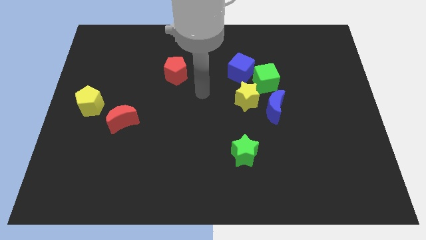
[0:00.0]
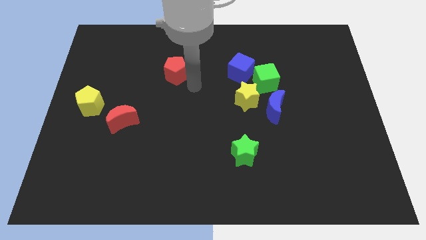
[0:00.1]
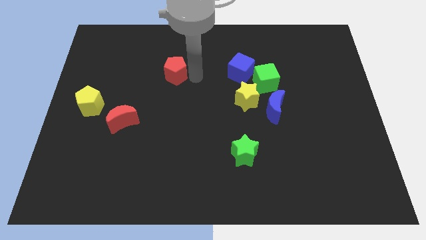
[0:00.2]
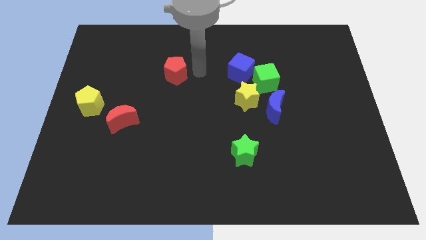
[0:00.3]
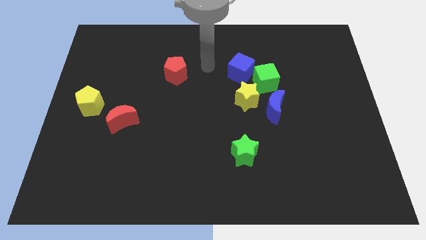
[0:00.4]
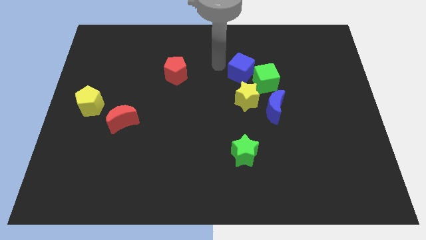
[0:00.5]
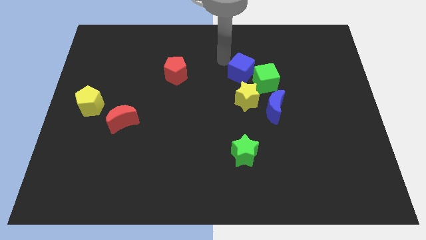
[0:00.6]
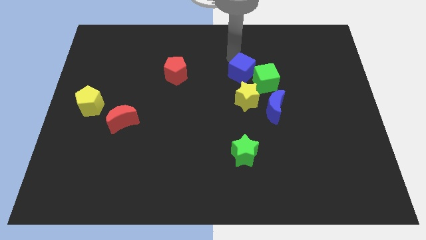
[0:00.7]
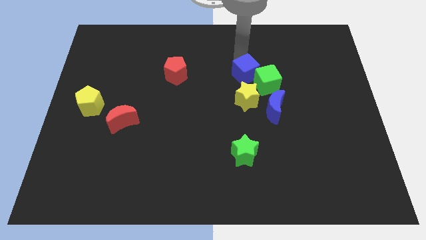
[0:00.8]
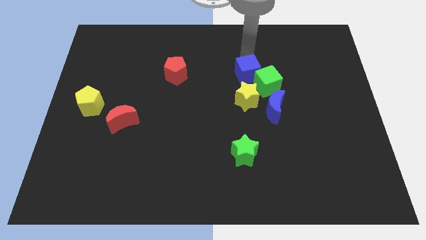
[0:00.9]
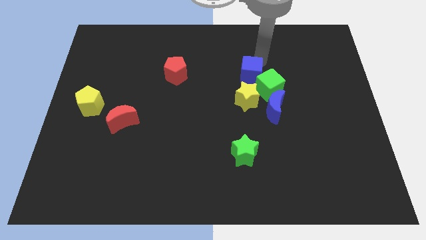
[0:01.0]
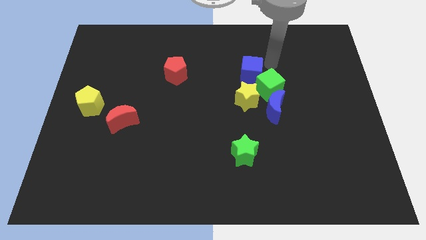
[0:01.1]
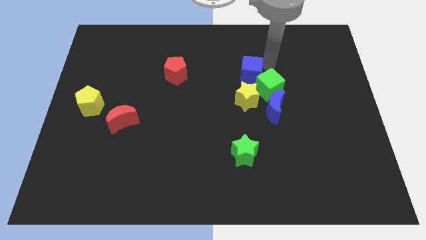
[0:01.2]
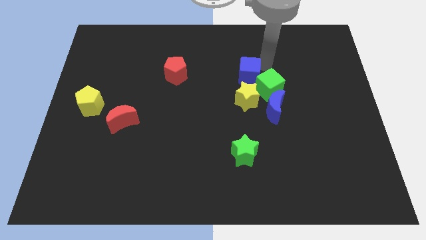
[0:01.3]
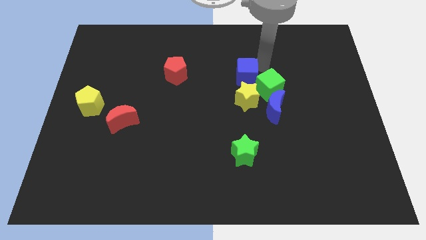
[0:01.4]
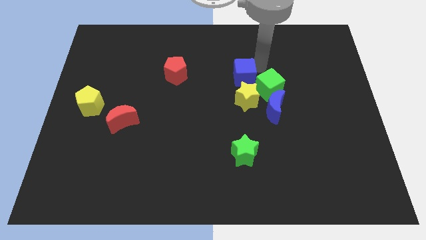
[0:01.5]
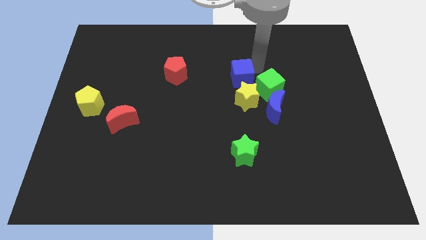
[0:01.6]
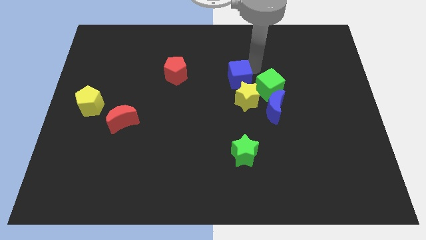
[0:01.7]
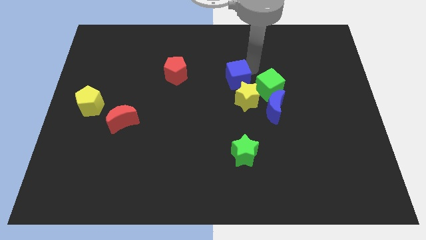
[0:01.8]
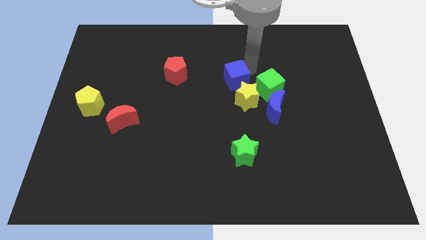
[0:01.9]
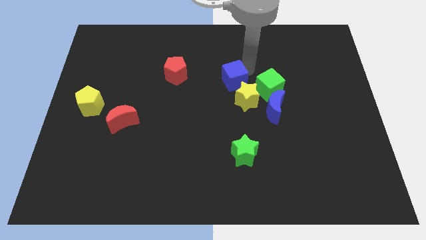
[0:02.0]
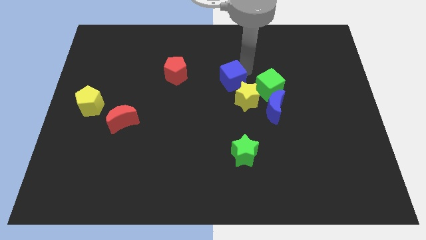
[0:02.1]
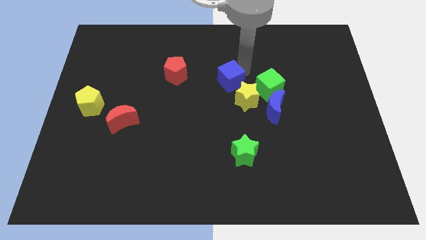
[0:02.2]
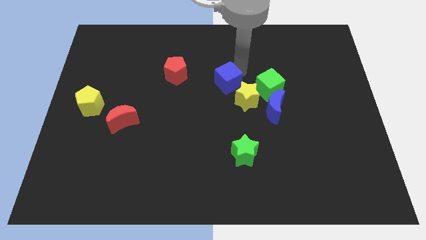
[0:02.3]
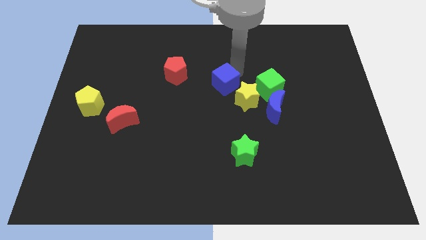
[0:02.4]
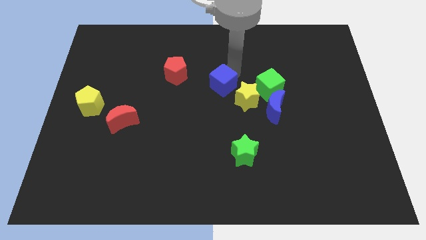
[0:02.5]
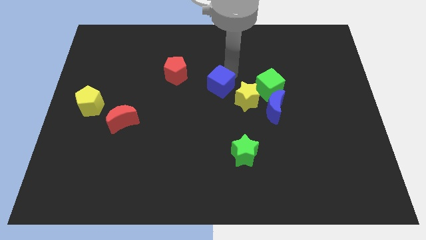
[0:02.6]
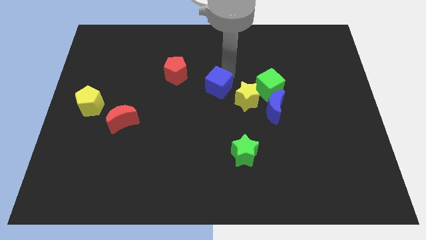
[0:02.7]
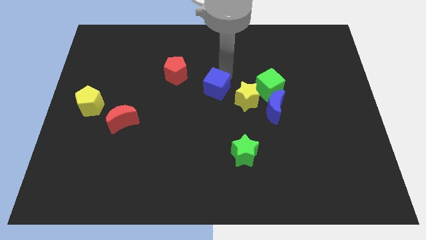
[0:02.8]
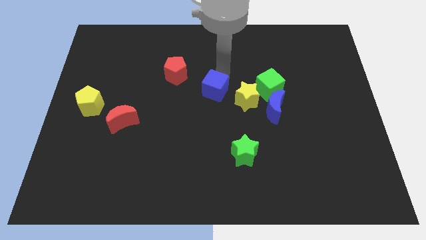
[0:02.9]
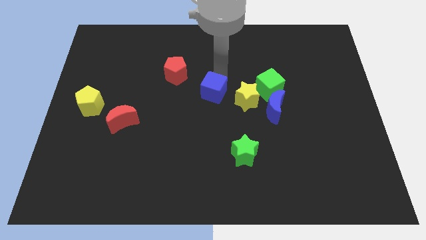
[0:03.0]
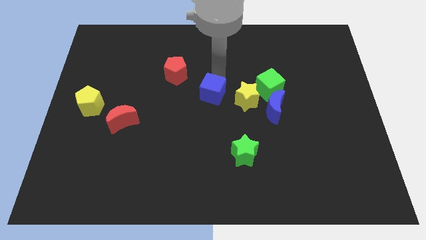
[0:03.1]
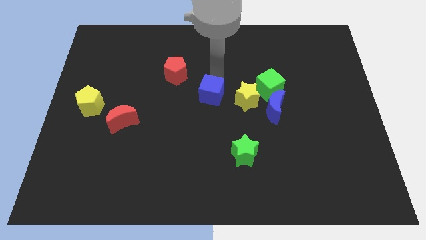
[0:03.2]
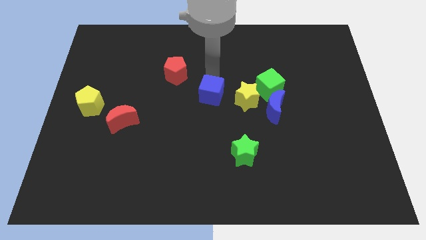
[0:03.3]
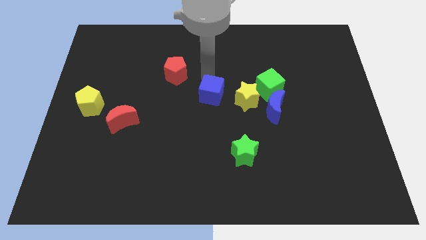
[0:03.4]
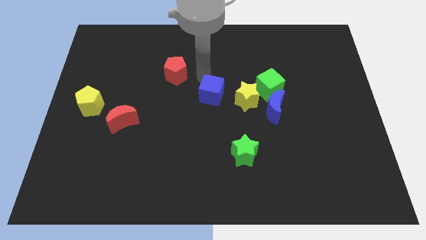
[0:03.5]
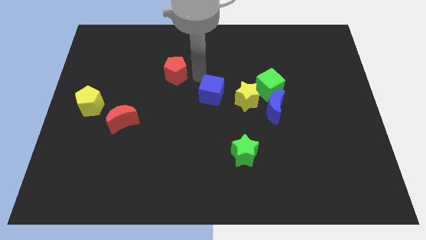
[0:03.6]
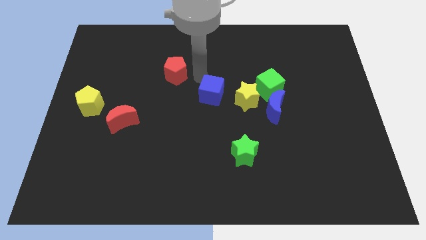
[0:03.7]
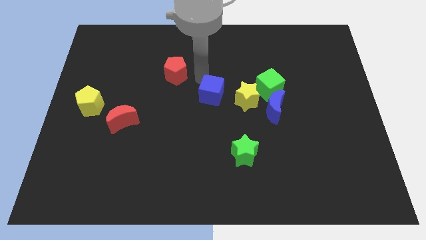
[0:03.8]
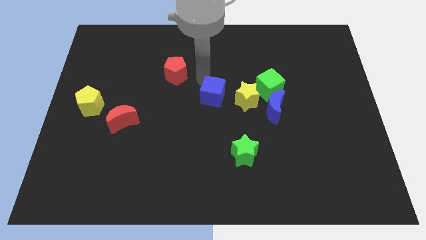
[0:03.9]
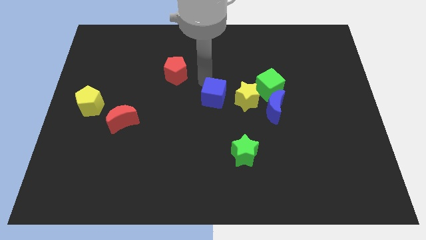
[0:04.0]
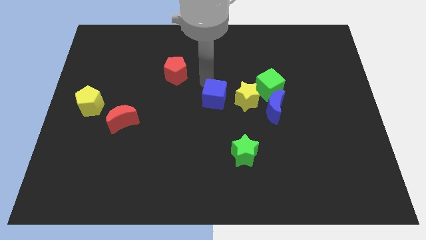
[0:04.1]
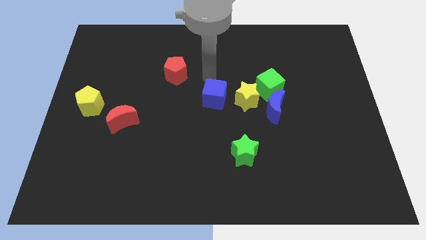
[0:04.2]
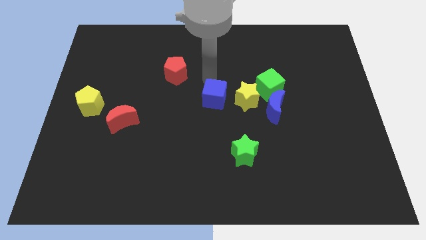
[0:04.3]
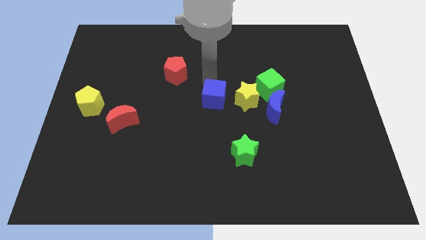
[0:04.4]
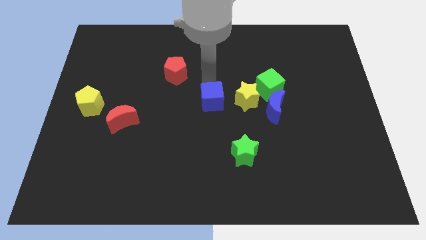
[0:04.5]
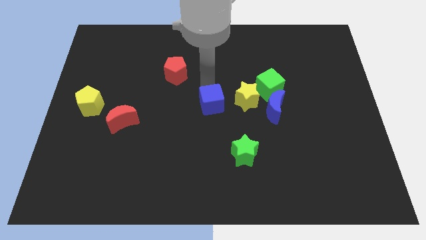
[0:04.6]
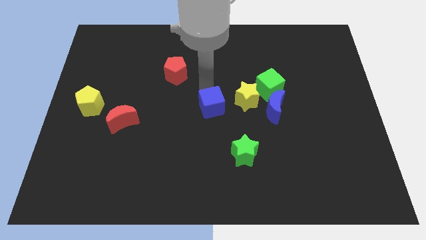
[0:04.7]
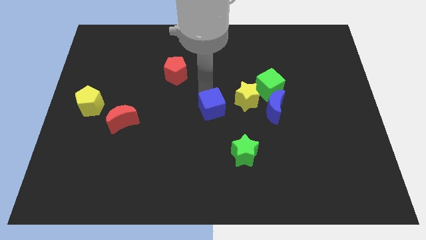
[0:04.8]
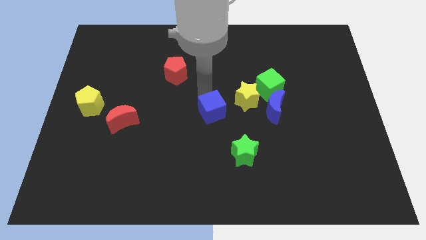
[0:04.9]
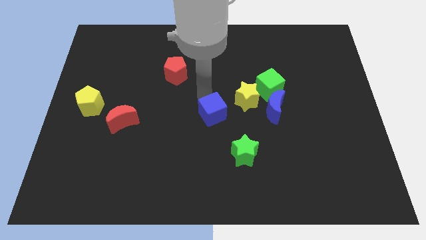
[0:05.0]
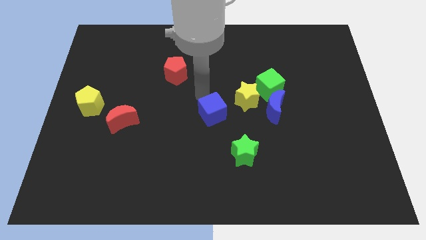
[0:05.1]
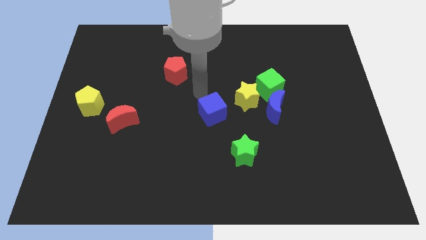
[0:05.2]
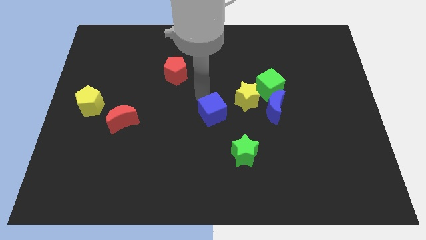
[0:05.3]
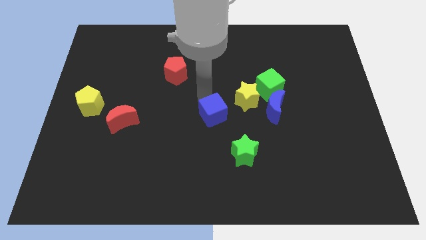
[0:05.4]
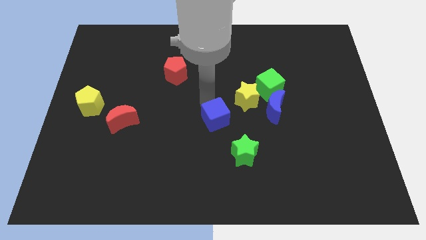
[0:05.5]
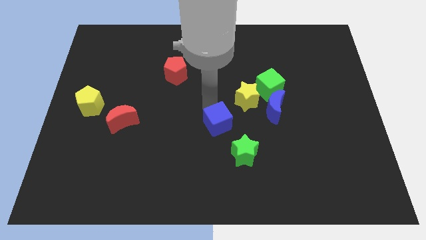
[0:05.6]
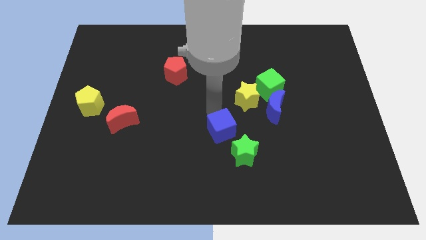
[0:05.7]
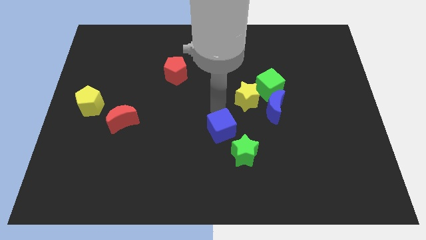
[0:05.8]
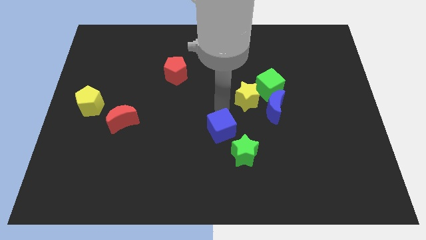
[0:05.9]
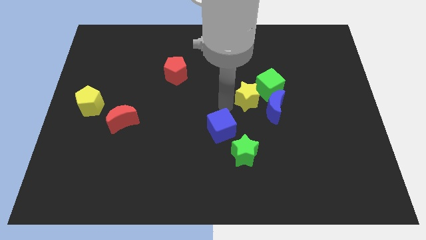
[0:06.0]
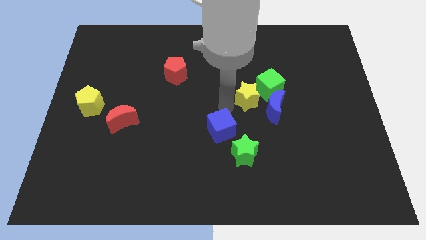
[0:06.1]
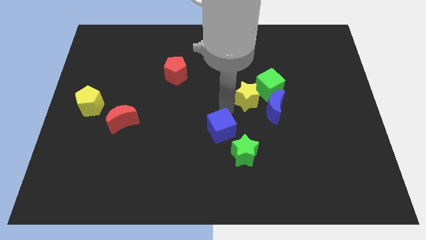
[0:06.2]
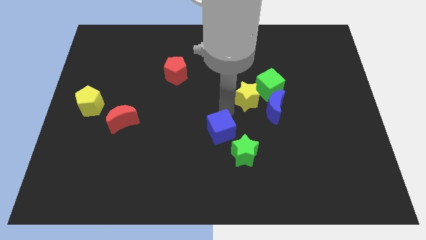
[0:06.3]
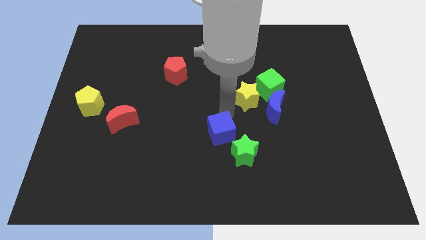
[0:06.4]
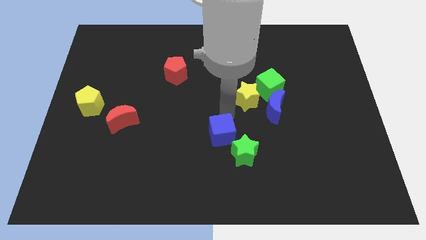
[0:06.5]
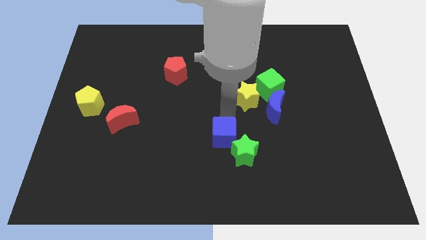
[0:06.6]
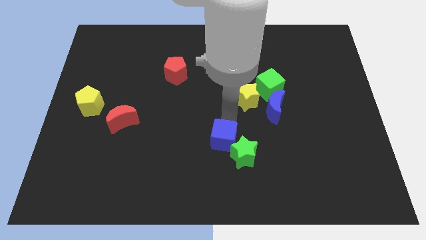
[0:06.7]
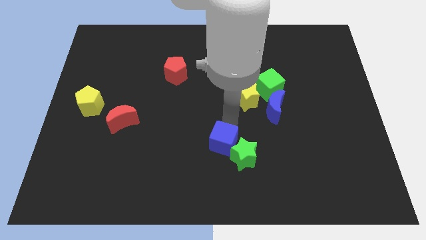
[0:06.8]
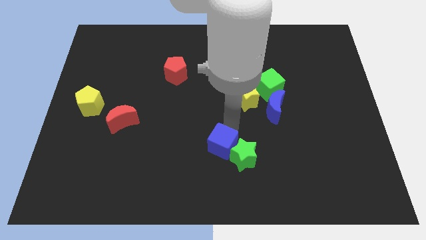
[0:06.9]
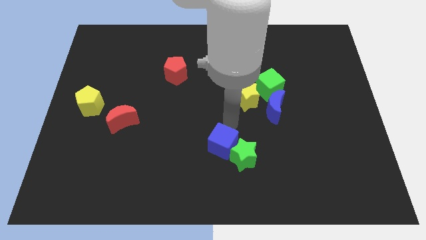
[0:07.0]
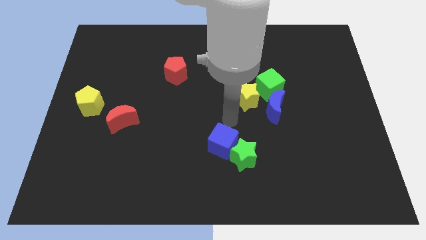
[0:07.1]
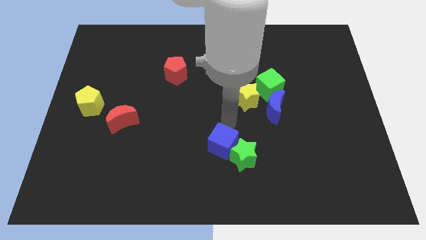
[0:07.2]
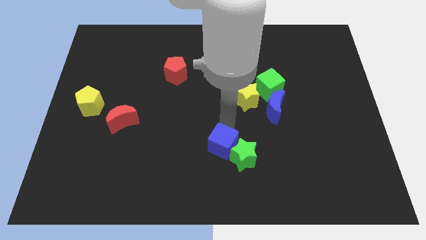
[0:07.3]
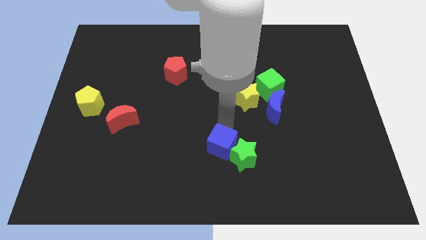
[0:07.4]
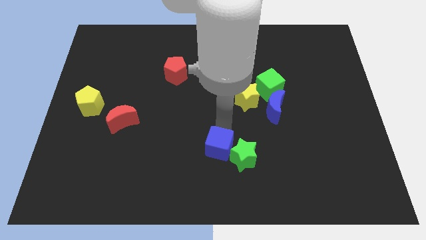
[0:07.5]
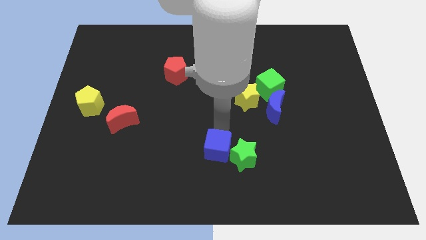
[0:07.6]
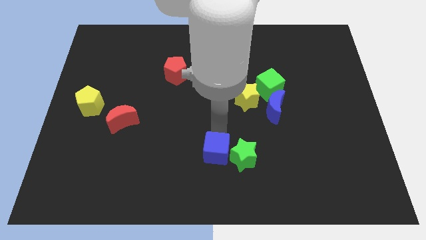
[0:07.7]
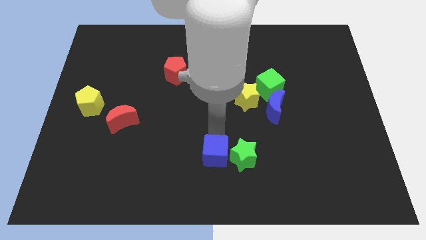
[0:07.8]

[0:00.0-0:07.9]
put the blue cube to the bottom side
